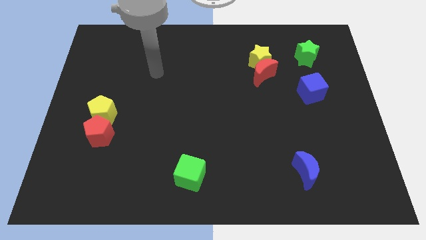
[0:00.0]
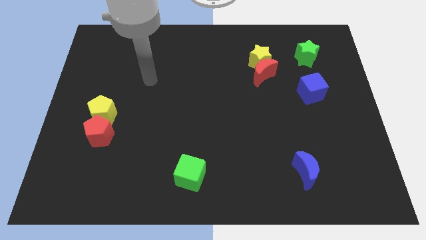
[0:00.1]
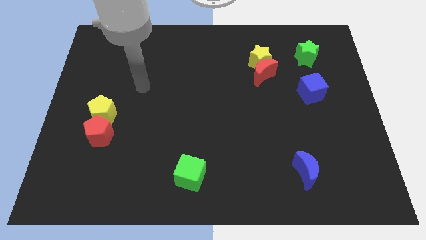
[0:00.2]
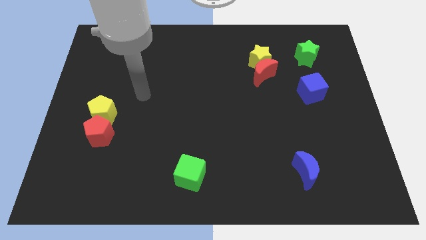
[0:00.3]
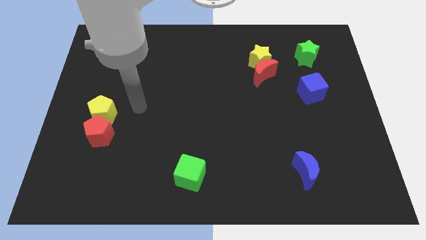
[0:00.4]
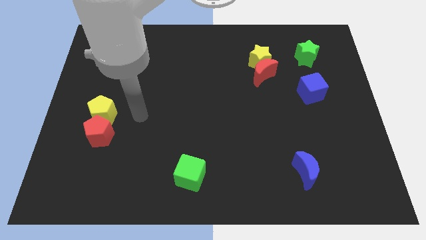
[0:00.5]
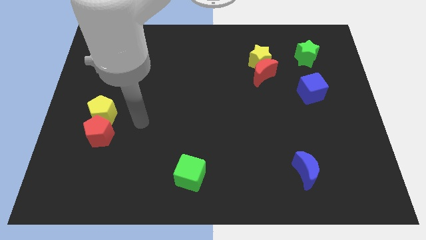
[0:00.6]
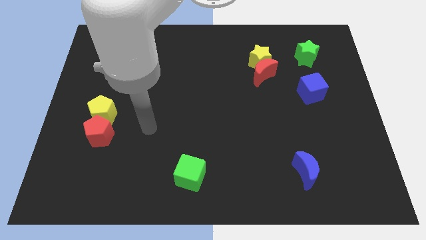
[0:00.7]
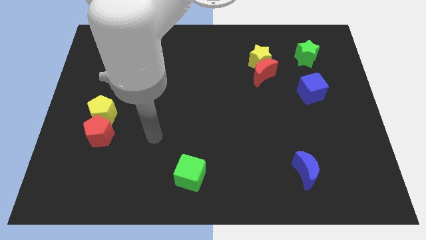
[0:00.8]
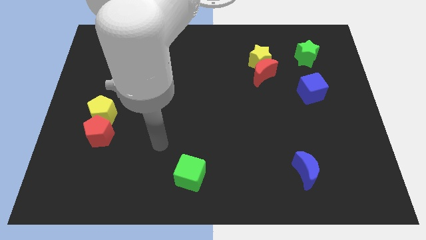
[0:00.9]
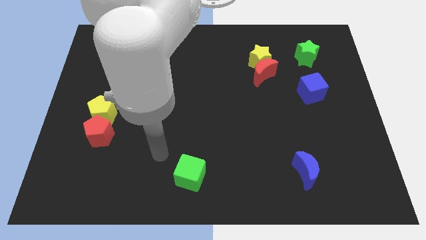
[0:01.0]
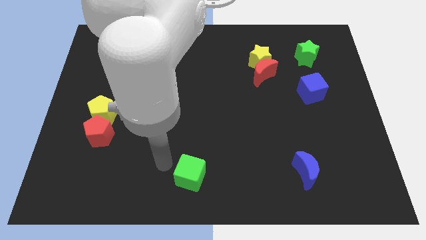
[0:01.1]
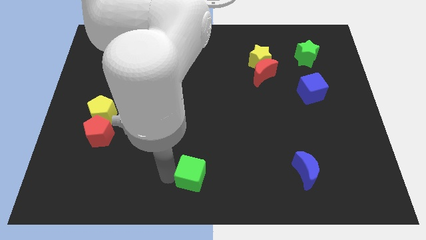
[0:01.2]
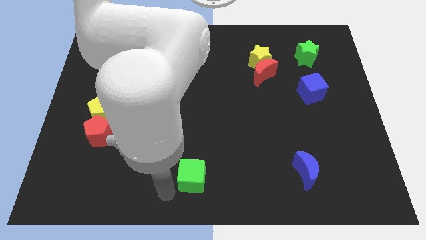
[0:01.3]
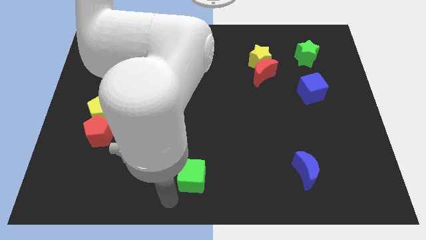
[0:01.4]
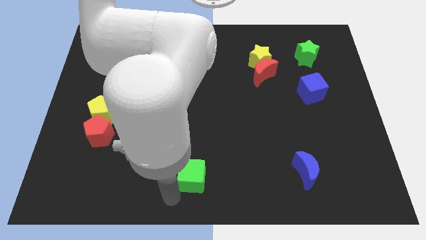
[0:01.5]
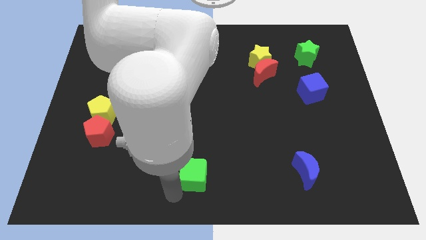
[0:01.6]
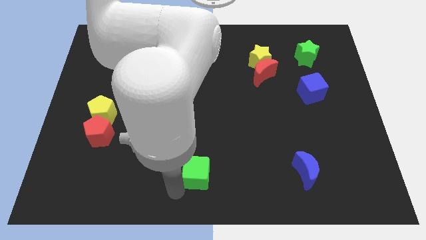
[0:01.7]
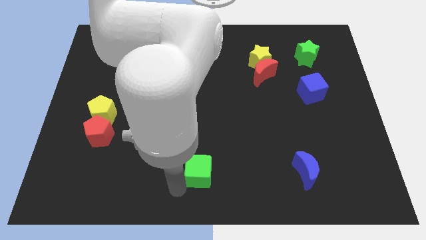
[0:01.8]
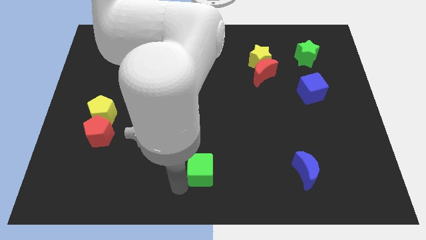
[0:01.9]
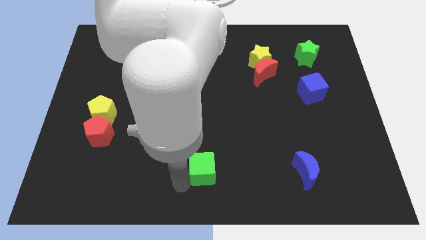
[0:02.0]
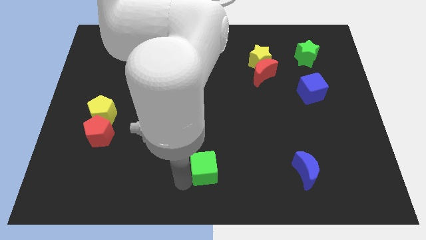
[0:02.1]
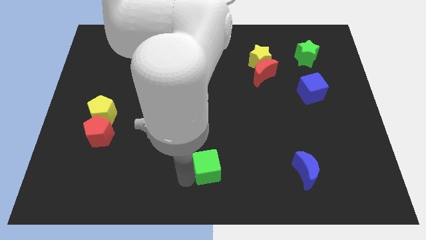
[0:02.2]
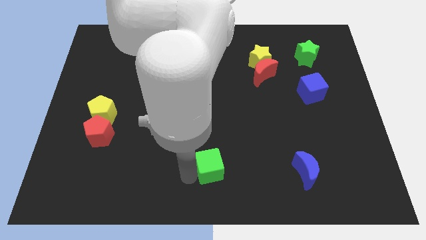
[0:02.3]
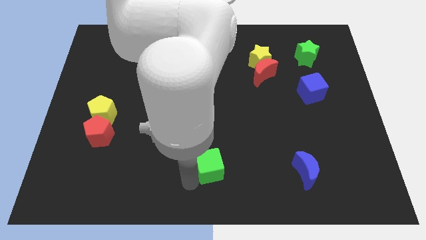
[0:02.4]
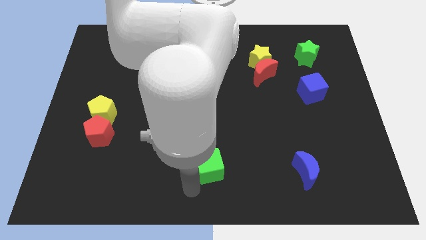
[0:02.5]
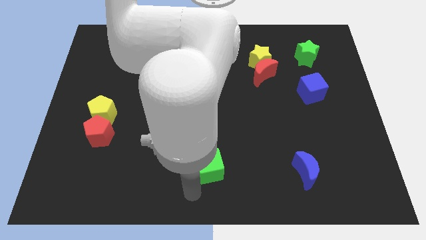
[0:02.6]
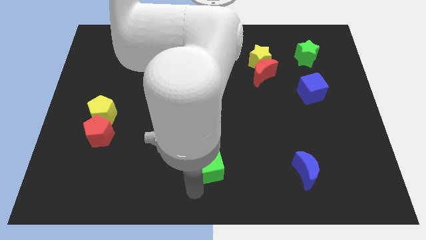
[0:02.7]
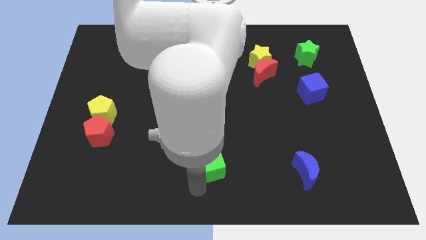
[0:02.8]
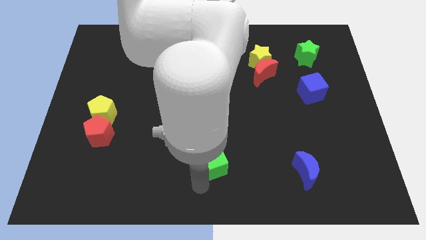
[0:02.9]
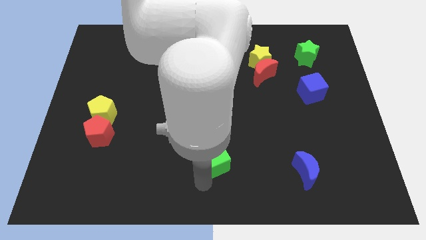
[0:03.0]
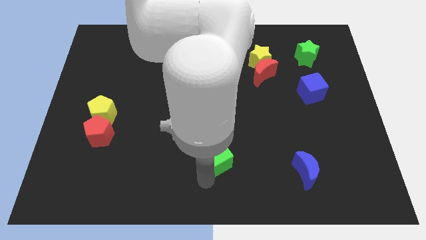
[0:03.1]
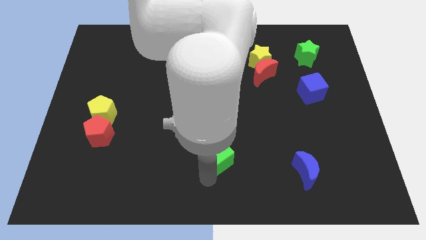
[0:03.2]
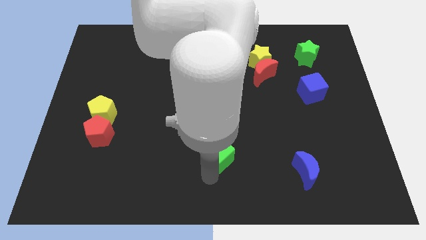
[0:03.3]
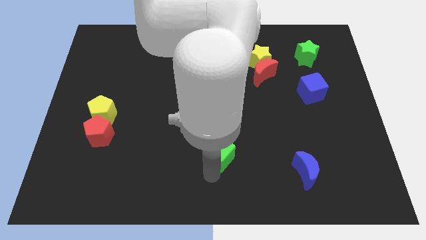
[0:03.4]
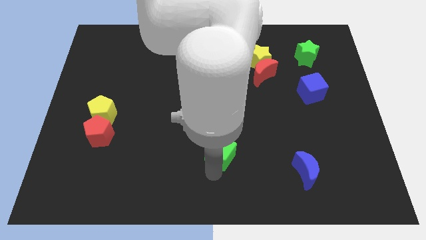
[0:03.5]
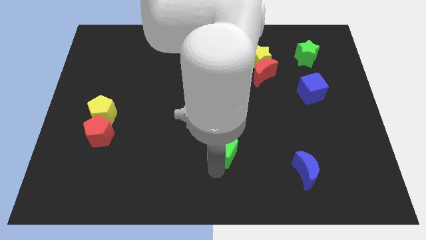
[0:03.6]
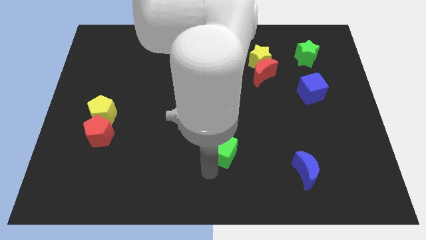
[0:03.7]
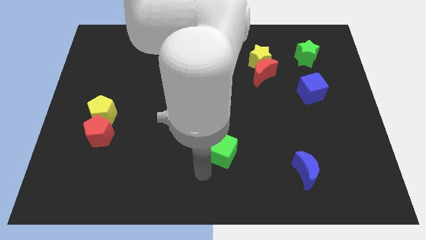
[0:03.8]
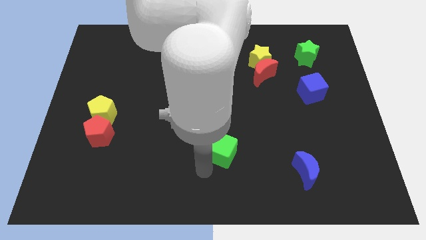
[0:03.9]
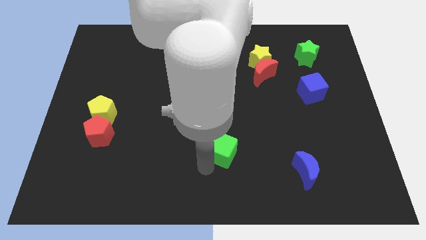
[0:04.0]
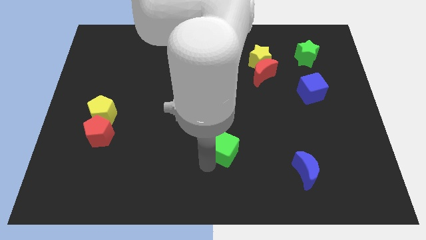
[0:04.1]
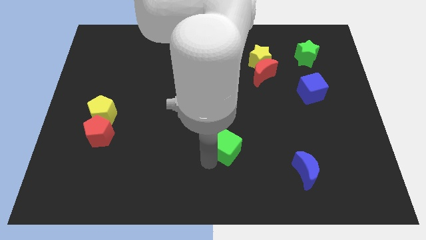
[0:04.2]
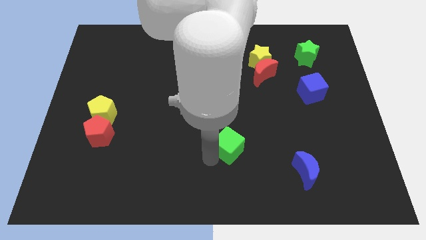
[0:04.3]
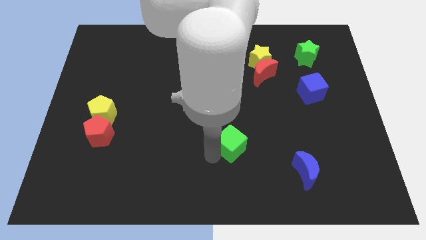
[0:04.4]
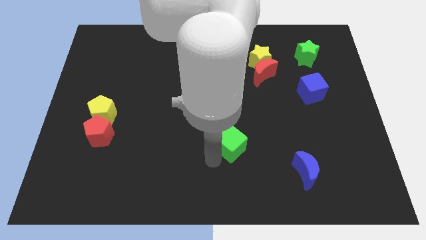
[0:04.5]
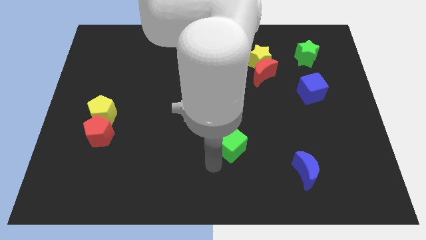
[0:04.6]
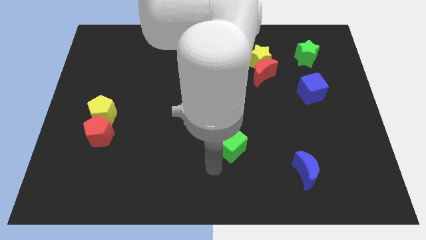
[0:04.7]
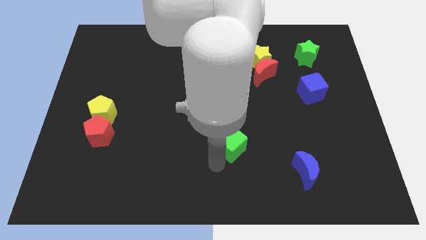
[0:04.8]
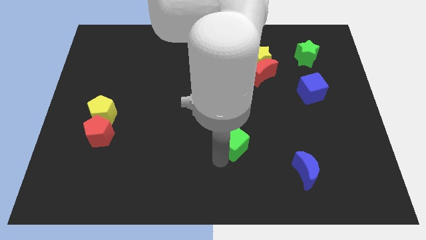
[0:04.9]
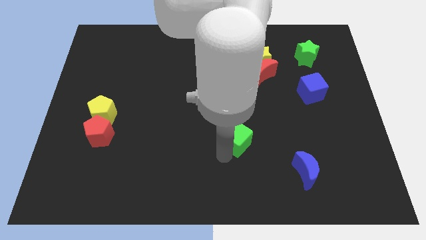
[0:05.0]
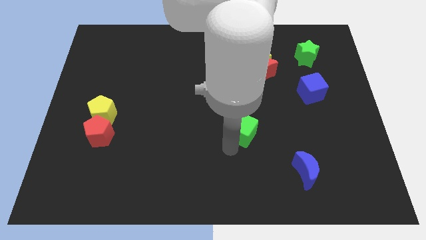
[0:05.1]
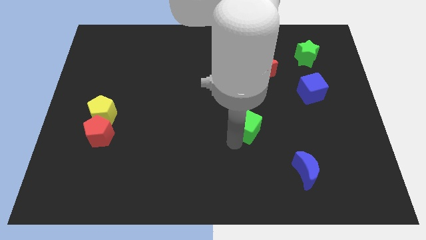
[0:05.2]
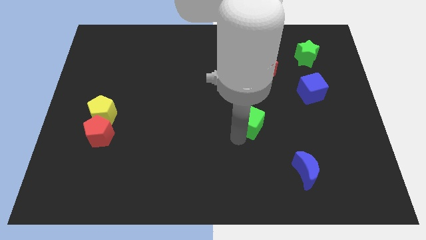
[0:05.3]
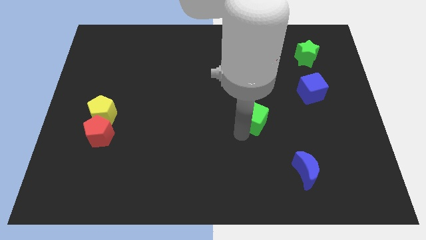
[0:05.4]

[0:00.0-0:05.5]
slide the green cube below the red moon

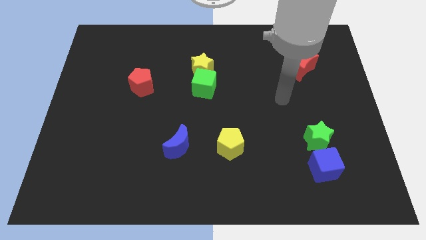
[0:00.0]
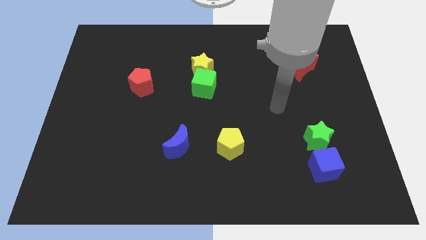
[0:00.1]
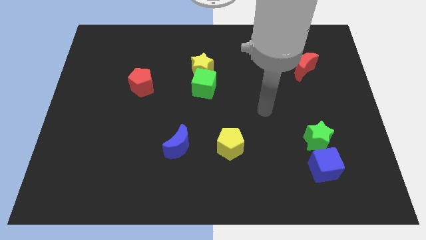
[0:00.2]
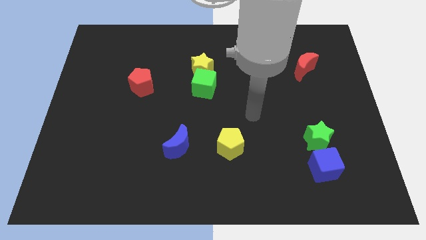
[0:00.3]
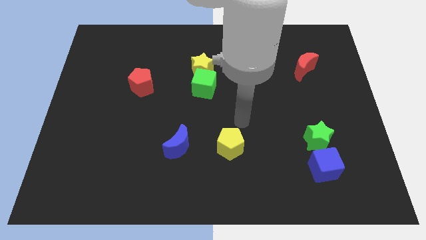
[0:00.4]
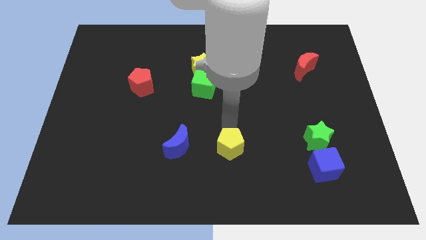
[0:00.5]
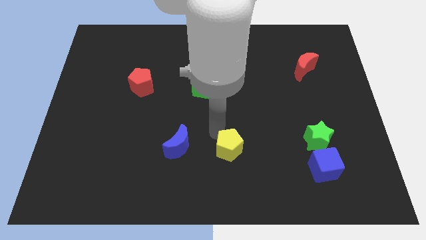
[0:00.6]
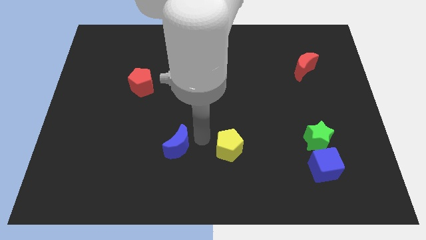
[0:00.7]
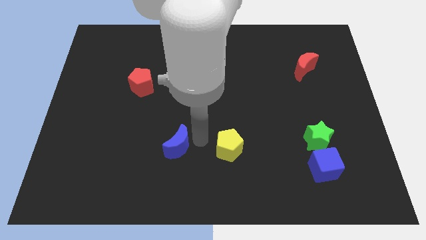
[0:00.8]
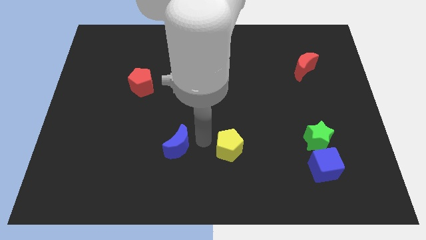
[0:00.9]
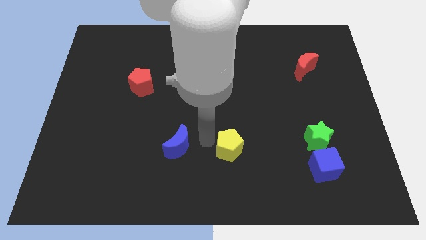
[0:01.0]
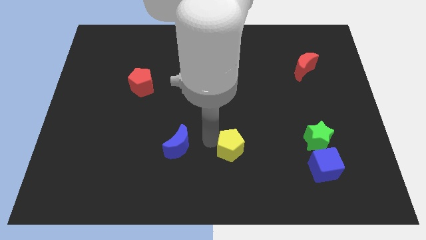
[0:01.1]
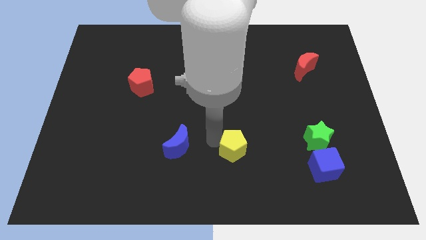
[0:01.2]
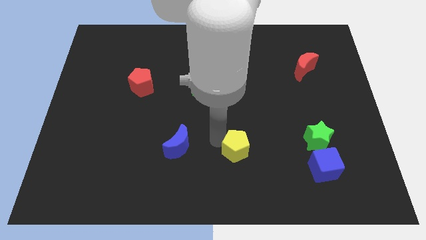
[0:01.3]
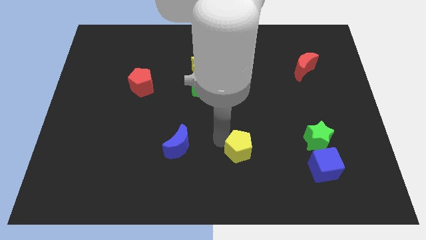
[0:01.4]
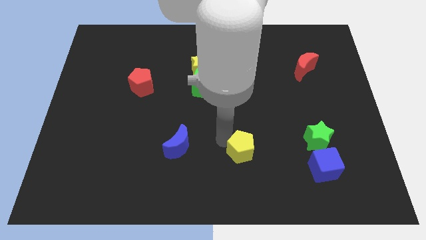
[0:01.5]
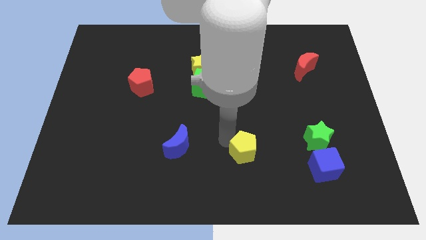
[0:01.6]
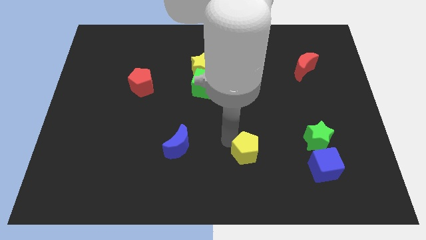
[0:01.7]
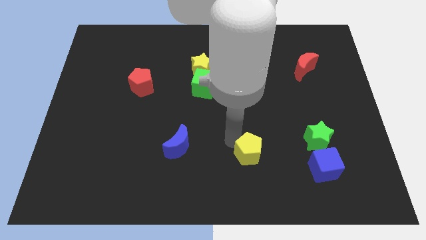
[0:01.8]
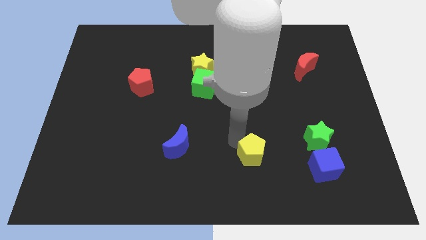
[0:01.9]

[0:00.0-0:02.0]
put the yellow pentagon just left of the blue cube
